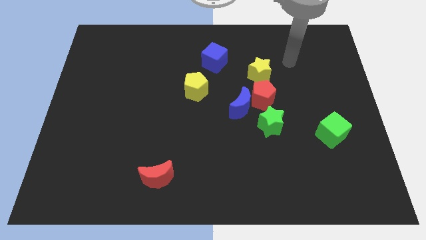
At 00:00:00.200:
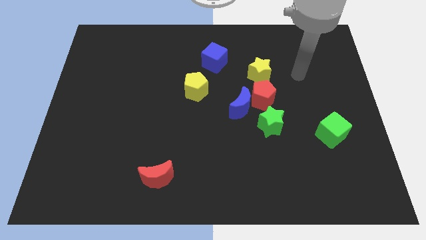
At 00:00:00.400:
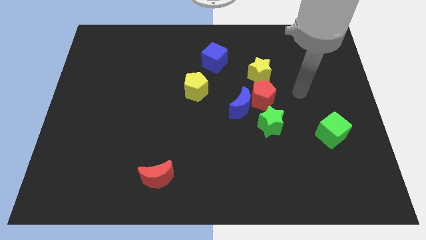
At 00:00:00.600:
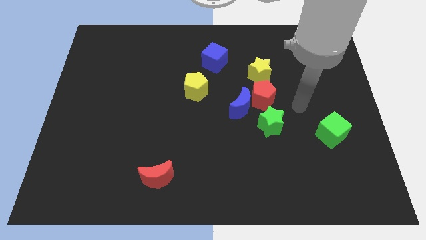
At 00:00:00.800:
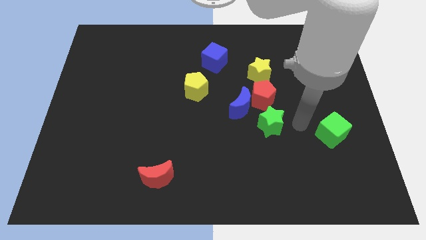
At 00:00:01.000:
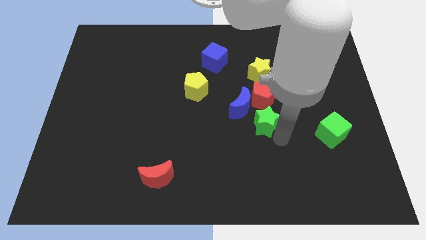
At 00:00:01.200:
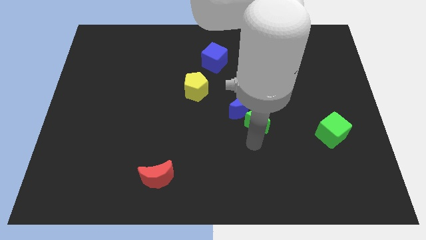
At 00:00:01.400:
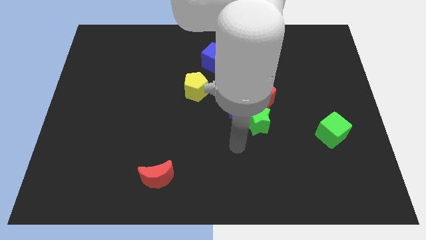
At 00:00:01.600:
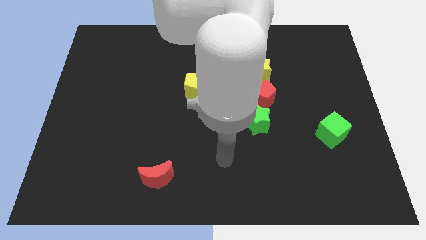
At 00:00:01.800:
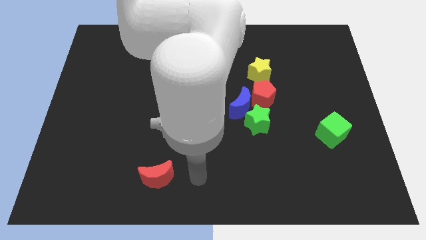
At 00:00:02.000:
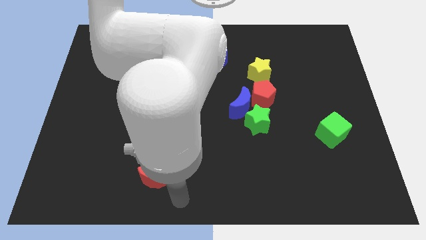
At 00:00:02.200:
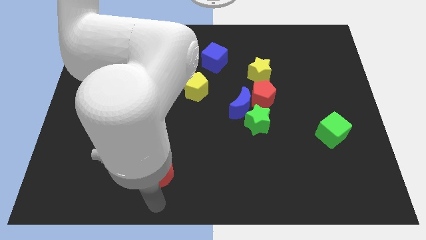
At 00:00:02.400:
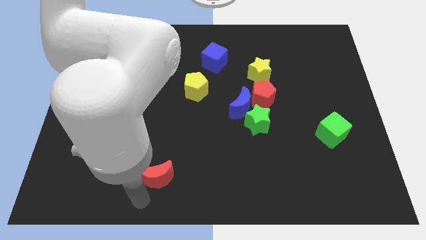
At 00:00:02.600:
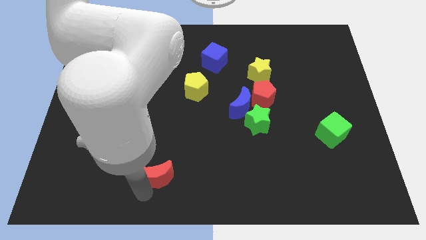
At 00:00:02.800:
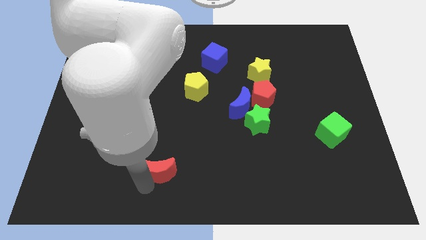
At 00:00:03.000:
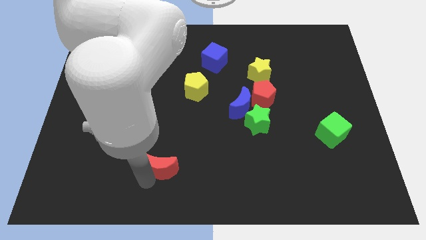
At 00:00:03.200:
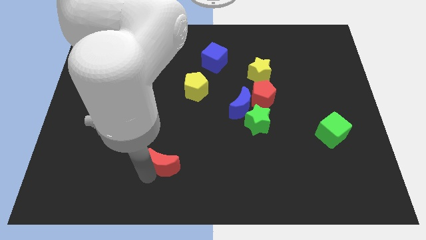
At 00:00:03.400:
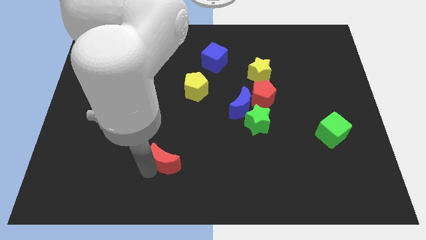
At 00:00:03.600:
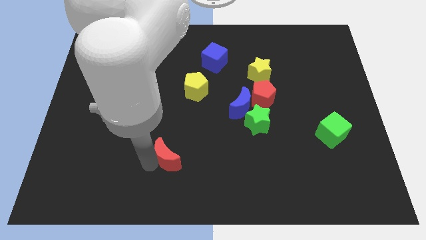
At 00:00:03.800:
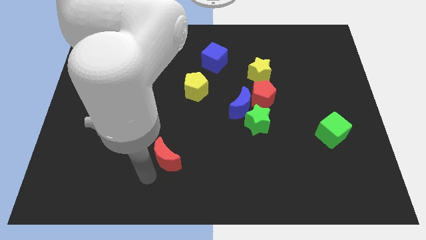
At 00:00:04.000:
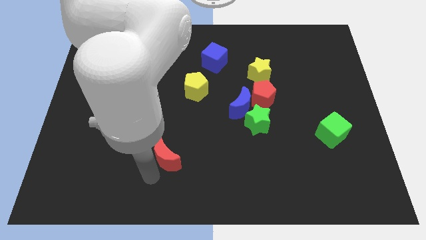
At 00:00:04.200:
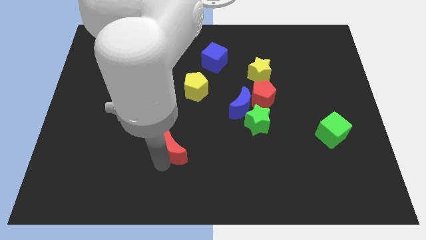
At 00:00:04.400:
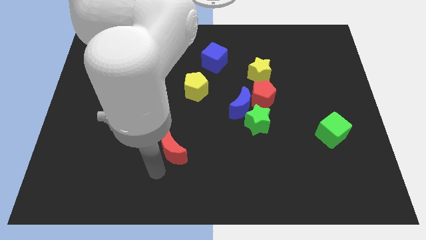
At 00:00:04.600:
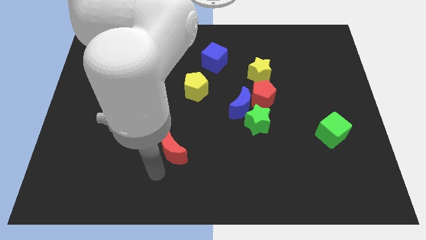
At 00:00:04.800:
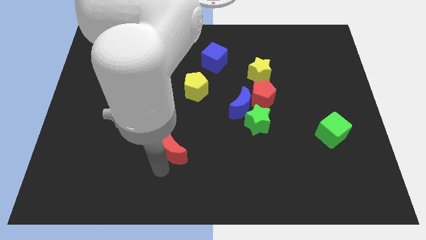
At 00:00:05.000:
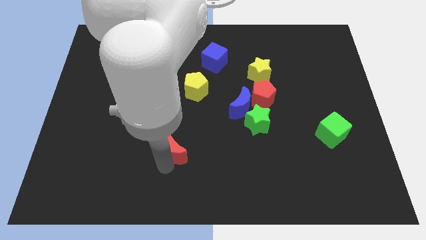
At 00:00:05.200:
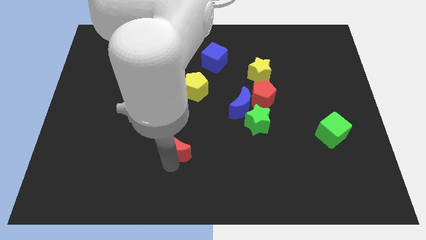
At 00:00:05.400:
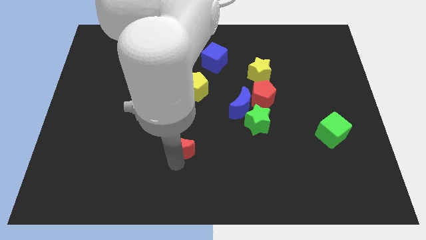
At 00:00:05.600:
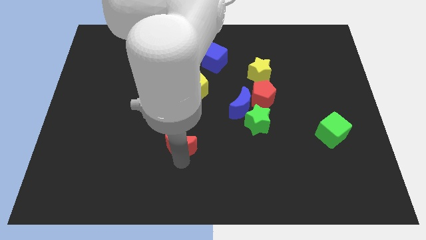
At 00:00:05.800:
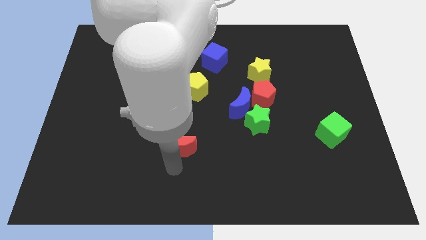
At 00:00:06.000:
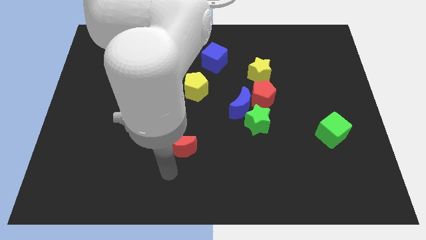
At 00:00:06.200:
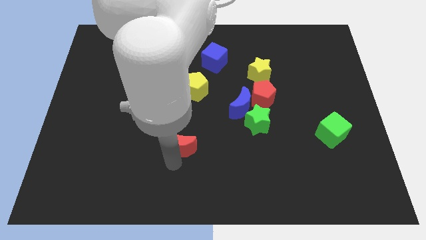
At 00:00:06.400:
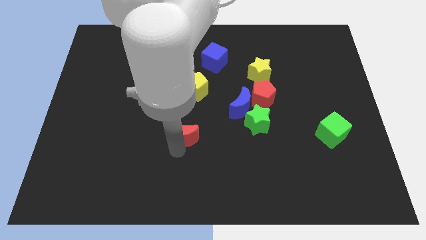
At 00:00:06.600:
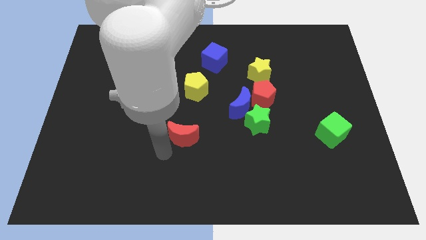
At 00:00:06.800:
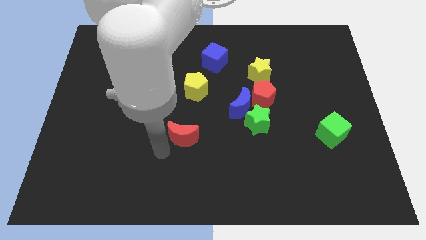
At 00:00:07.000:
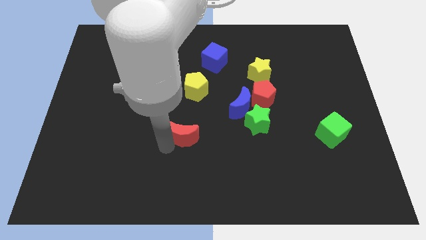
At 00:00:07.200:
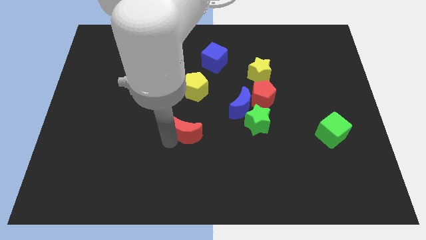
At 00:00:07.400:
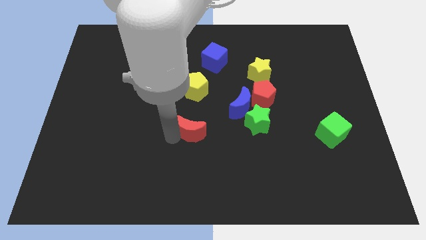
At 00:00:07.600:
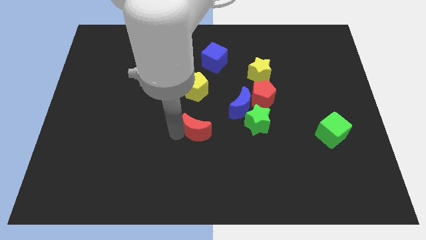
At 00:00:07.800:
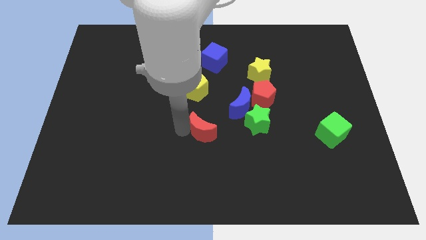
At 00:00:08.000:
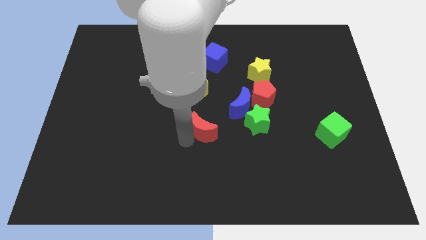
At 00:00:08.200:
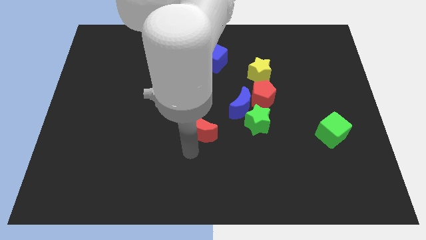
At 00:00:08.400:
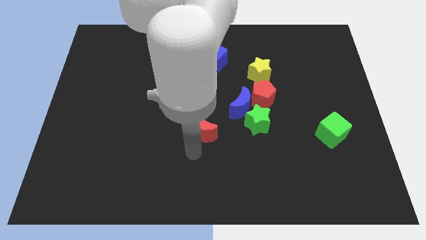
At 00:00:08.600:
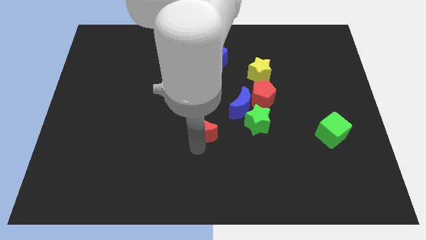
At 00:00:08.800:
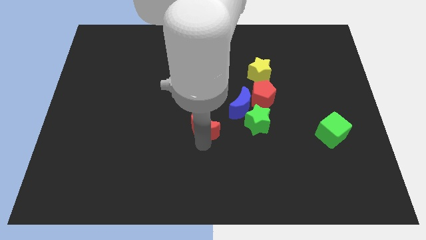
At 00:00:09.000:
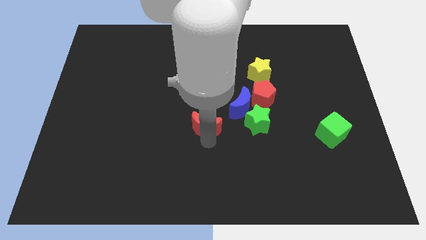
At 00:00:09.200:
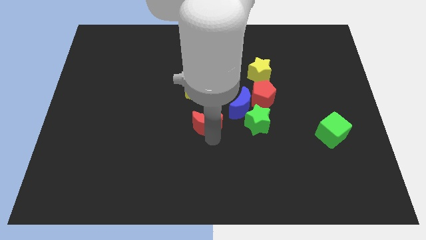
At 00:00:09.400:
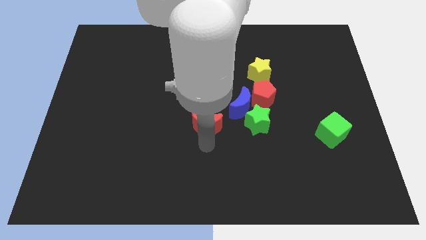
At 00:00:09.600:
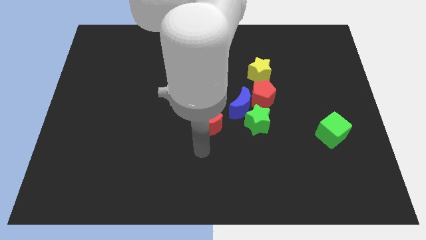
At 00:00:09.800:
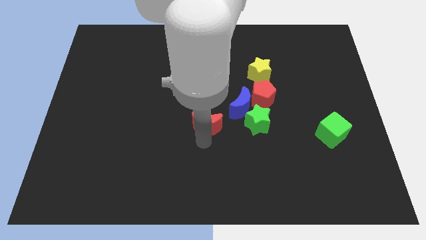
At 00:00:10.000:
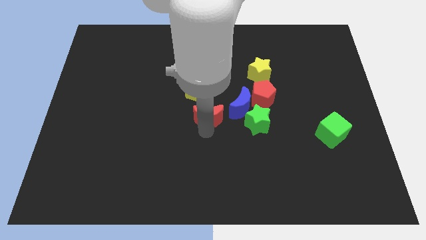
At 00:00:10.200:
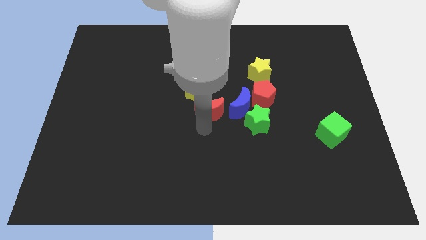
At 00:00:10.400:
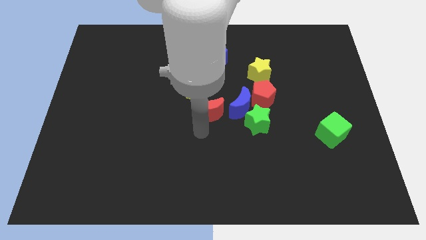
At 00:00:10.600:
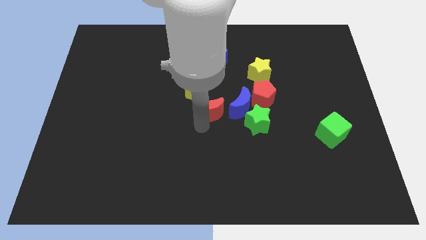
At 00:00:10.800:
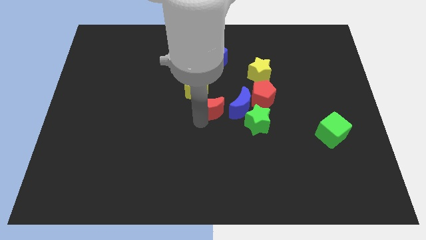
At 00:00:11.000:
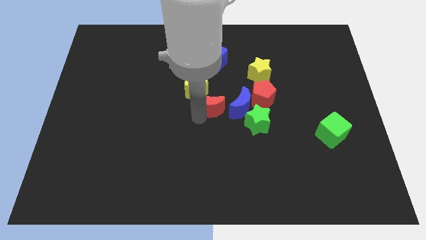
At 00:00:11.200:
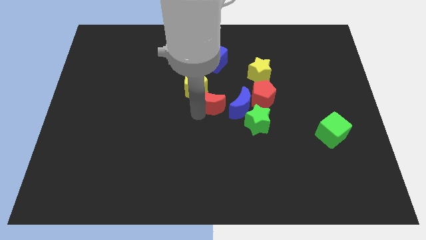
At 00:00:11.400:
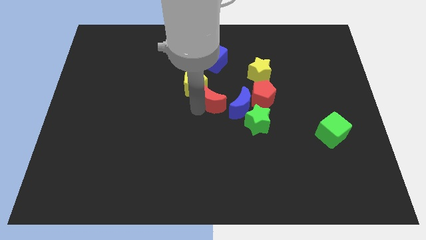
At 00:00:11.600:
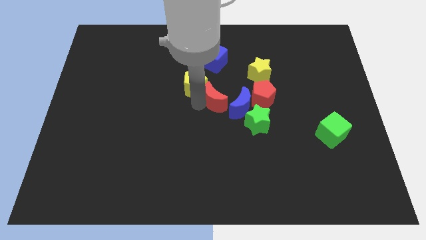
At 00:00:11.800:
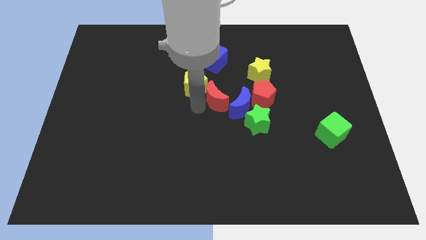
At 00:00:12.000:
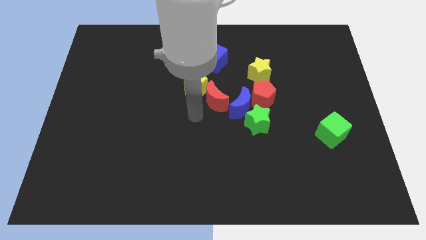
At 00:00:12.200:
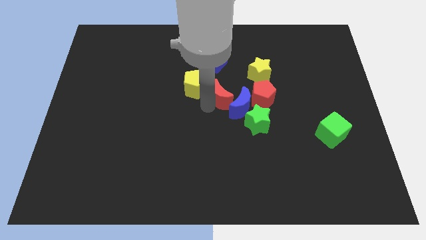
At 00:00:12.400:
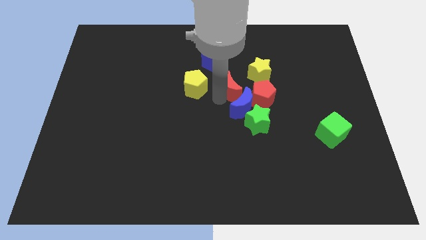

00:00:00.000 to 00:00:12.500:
slide the red moon diagonally up and to the left of the red pentagon

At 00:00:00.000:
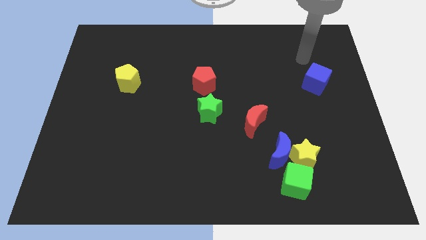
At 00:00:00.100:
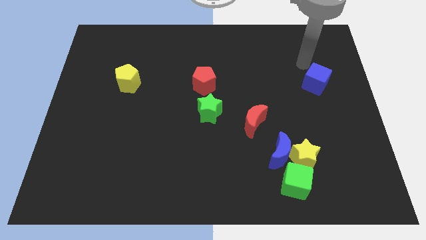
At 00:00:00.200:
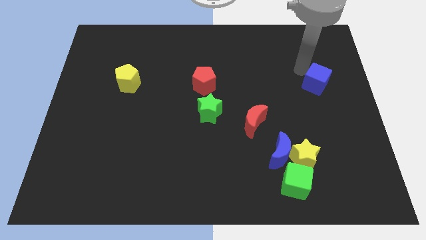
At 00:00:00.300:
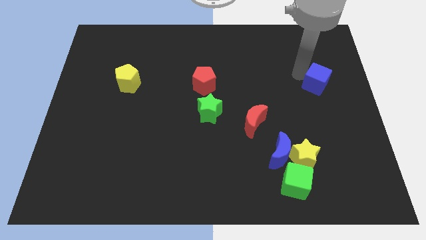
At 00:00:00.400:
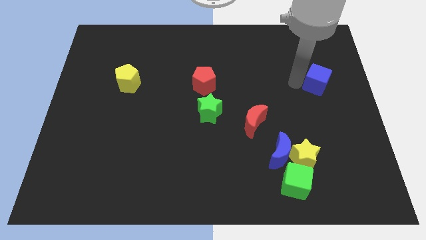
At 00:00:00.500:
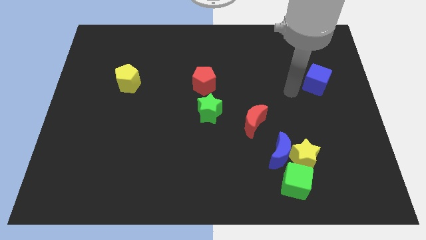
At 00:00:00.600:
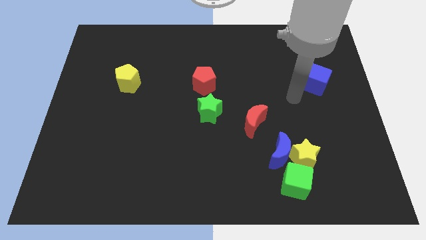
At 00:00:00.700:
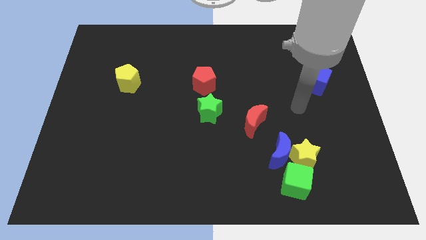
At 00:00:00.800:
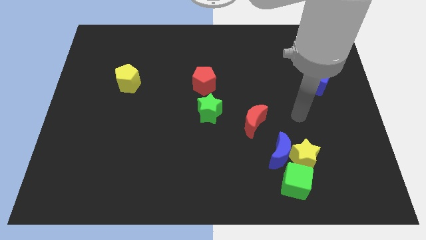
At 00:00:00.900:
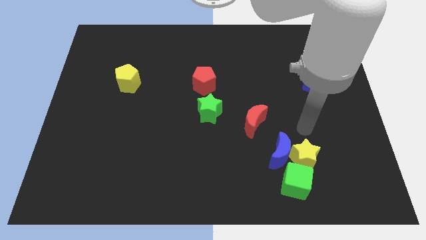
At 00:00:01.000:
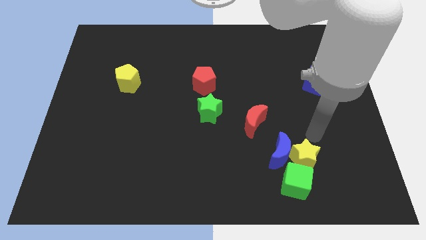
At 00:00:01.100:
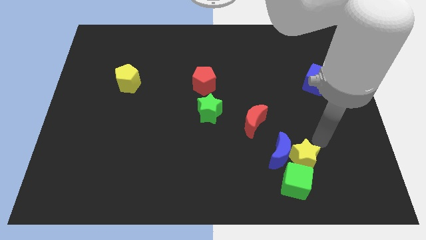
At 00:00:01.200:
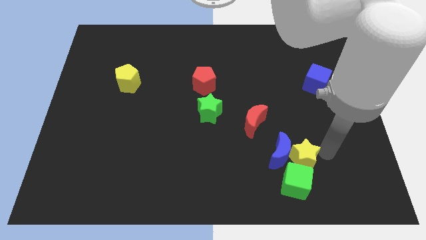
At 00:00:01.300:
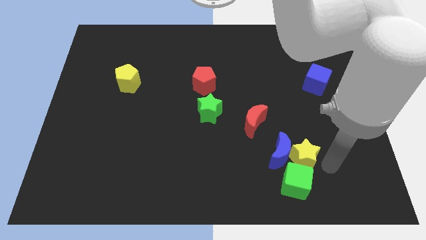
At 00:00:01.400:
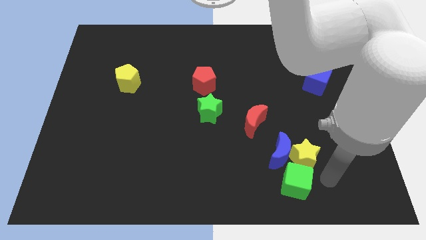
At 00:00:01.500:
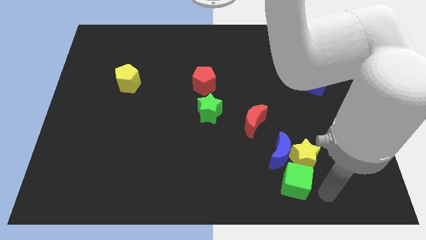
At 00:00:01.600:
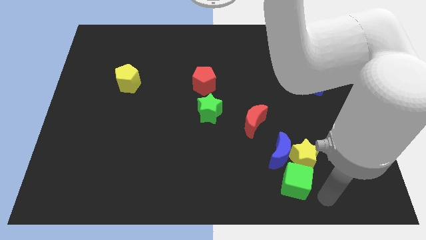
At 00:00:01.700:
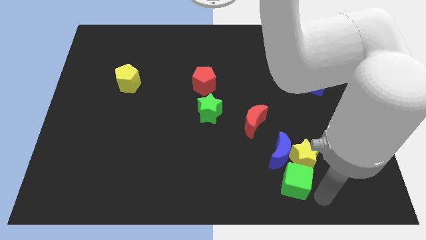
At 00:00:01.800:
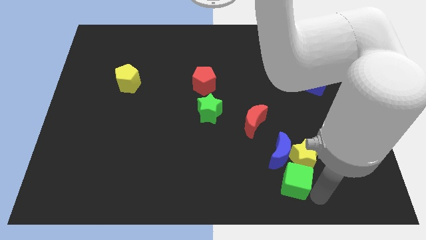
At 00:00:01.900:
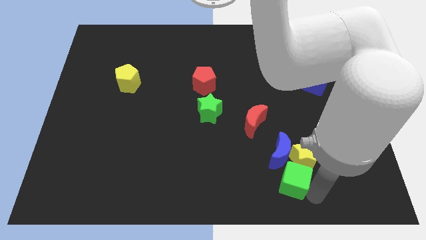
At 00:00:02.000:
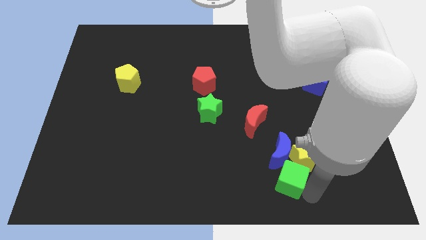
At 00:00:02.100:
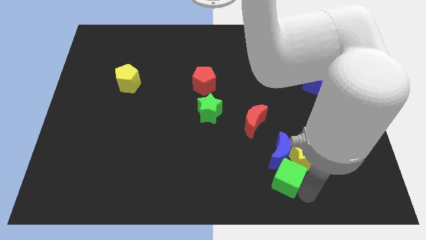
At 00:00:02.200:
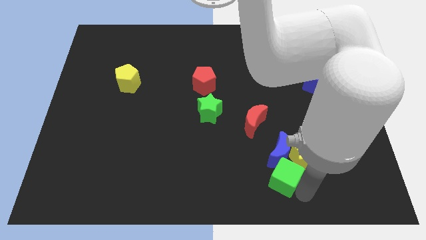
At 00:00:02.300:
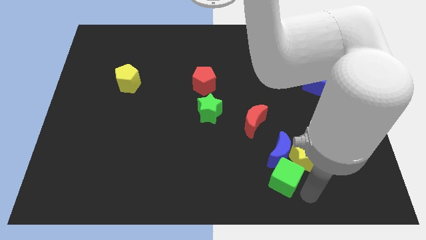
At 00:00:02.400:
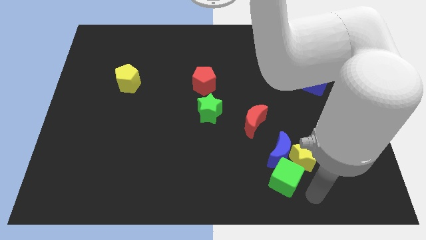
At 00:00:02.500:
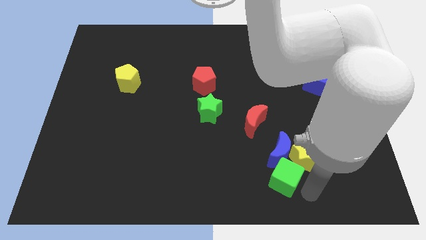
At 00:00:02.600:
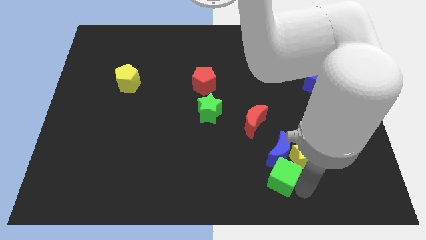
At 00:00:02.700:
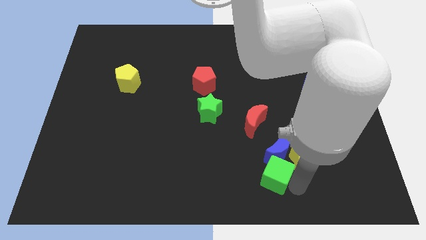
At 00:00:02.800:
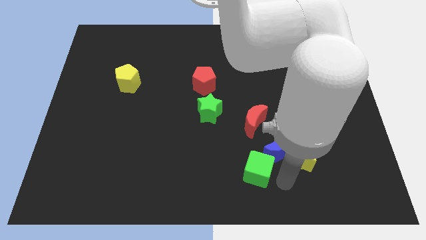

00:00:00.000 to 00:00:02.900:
move the green cube just left of the blue moon
